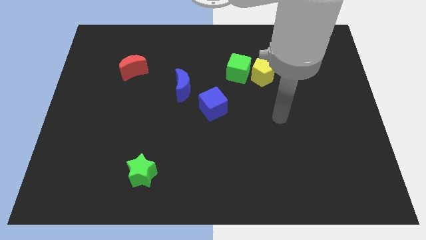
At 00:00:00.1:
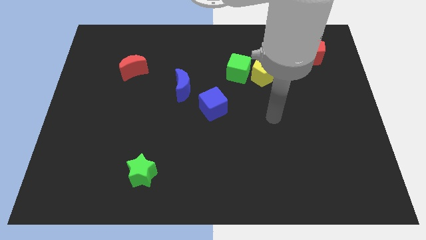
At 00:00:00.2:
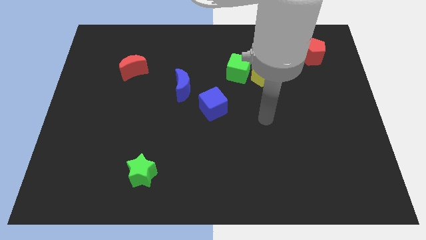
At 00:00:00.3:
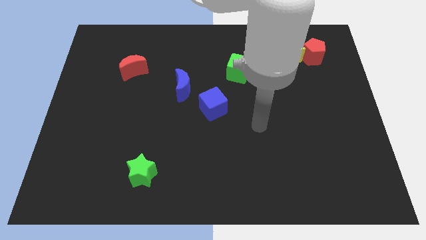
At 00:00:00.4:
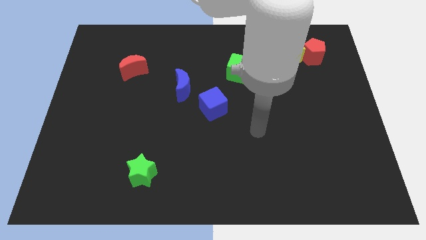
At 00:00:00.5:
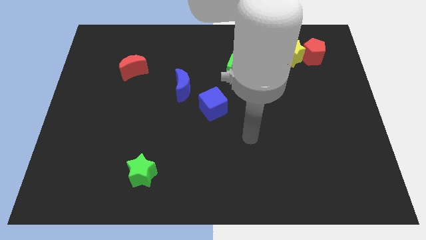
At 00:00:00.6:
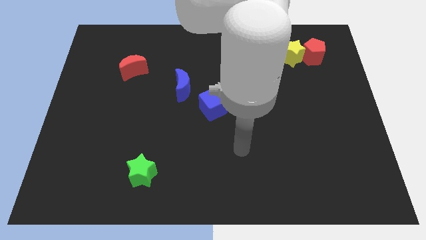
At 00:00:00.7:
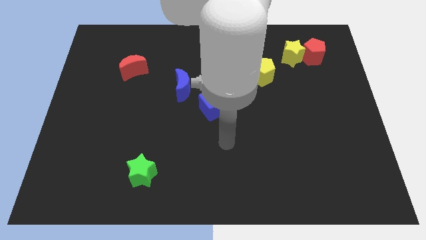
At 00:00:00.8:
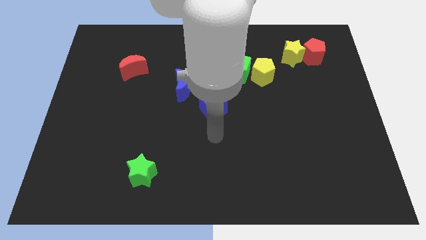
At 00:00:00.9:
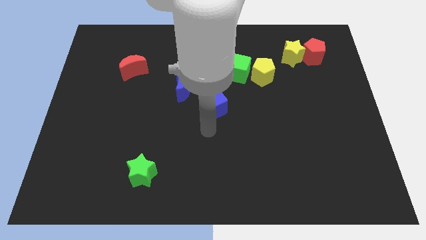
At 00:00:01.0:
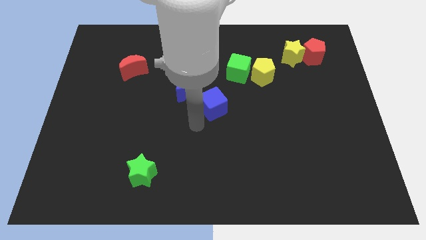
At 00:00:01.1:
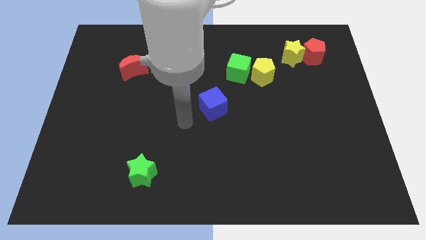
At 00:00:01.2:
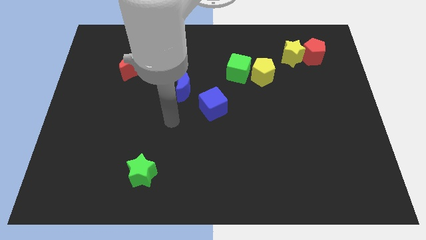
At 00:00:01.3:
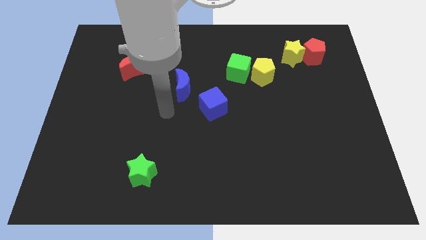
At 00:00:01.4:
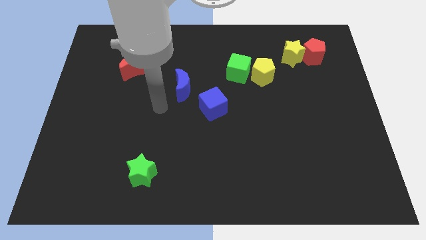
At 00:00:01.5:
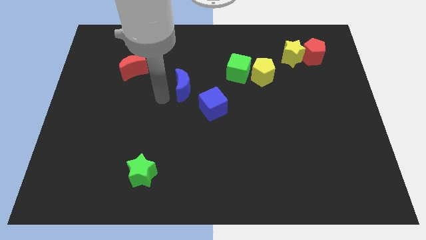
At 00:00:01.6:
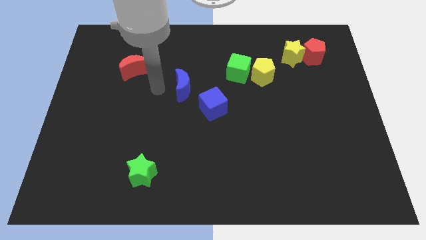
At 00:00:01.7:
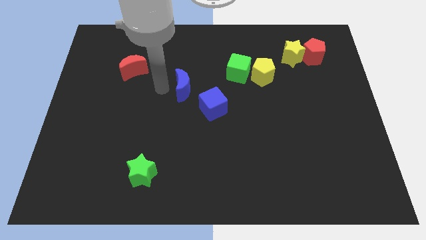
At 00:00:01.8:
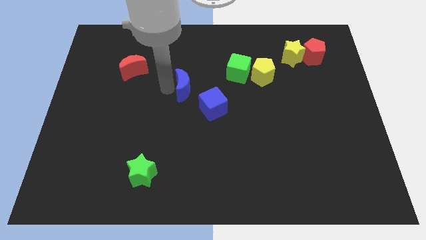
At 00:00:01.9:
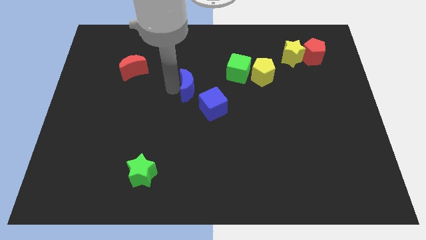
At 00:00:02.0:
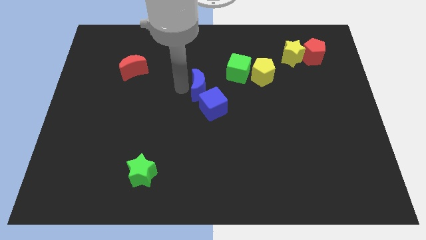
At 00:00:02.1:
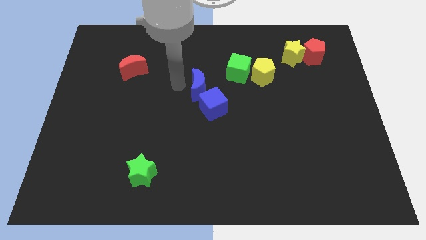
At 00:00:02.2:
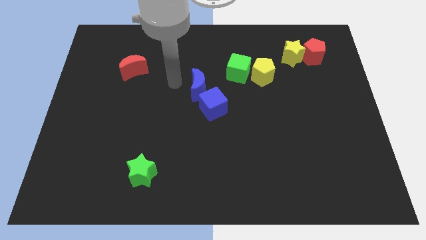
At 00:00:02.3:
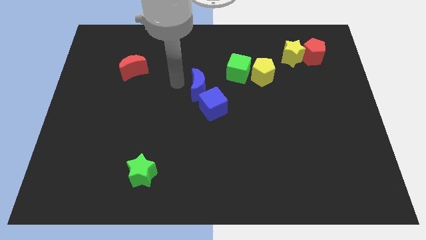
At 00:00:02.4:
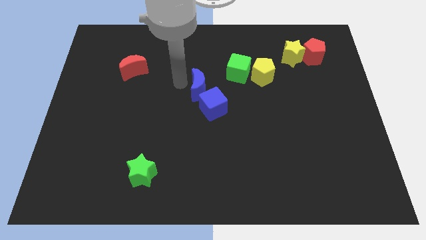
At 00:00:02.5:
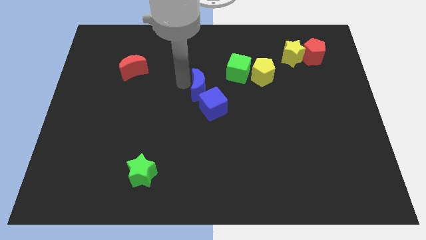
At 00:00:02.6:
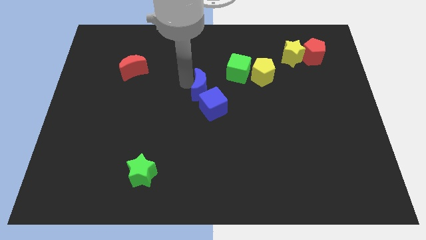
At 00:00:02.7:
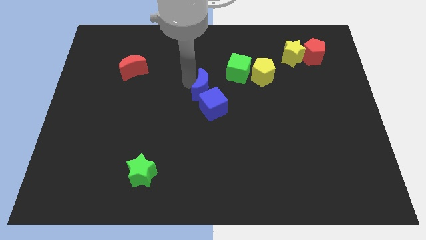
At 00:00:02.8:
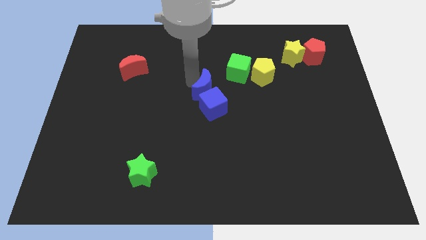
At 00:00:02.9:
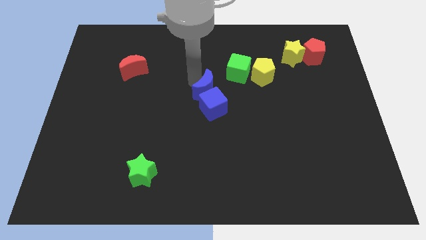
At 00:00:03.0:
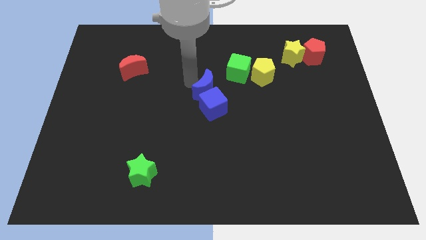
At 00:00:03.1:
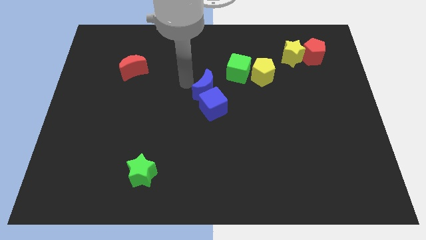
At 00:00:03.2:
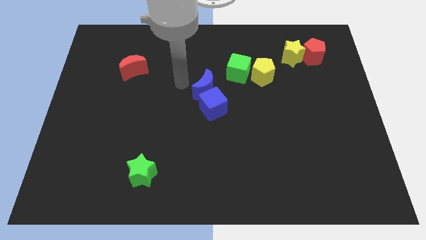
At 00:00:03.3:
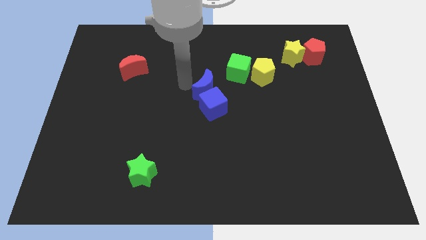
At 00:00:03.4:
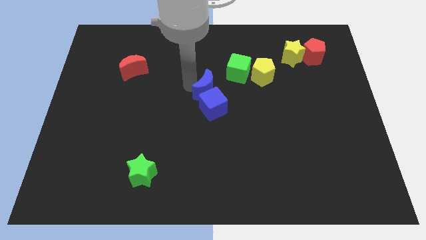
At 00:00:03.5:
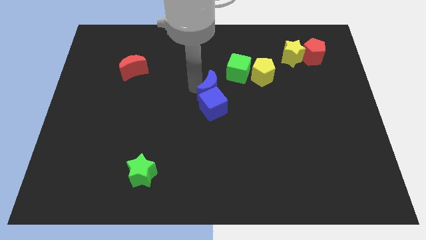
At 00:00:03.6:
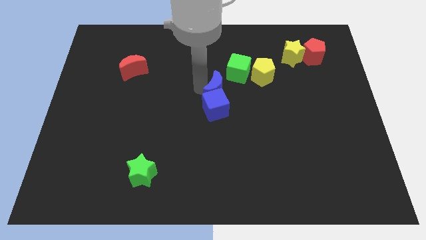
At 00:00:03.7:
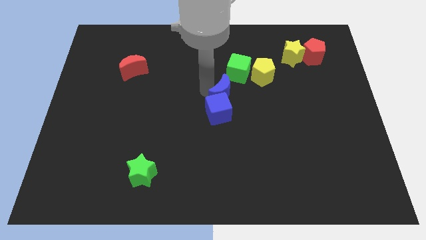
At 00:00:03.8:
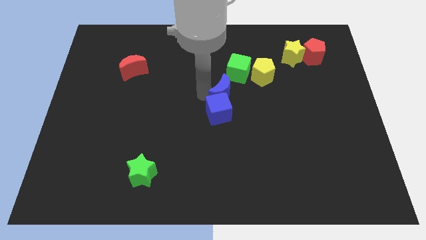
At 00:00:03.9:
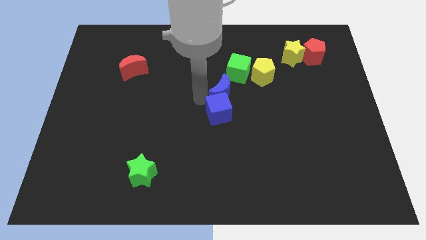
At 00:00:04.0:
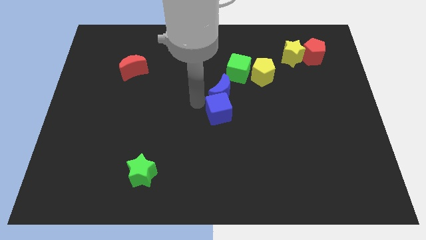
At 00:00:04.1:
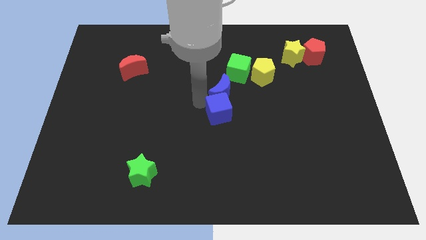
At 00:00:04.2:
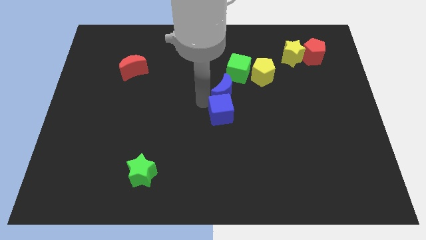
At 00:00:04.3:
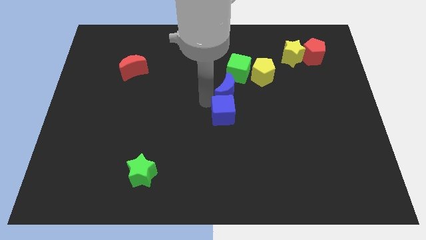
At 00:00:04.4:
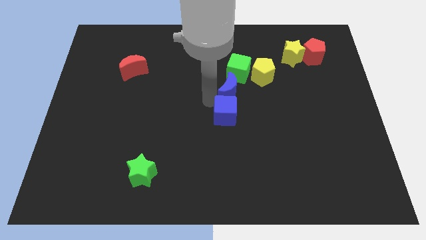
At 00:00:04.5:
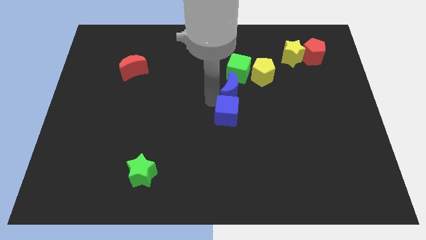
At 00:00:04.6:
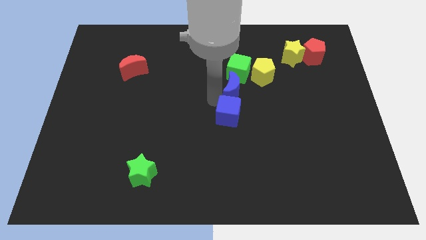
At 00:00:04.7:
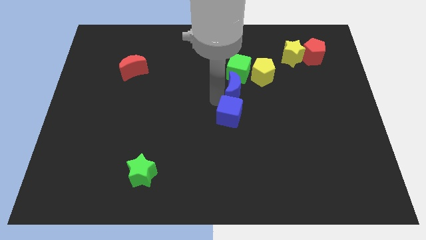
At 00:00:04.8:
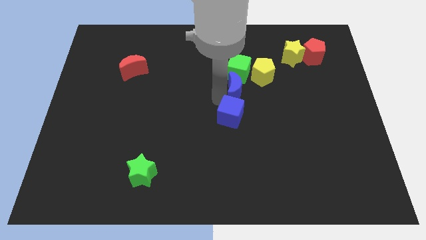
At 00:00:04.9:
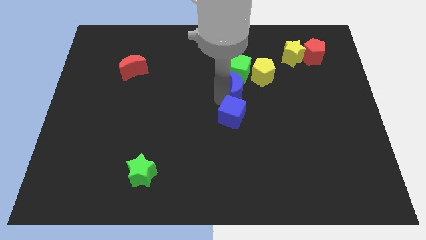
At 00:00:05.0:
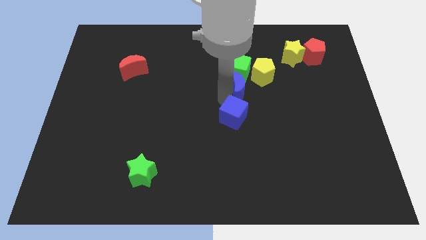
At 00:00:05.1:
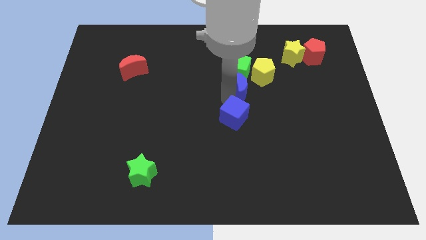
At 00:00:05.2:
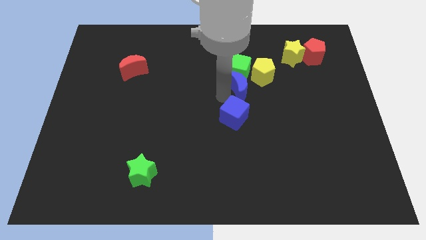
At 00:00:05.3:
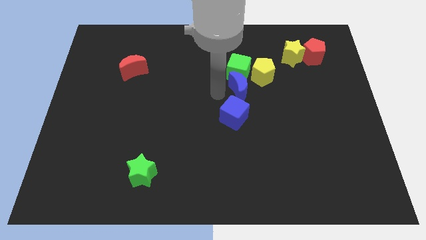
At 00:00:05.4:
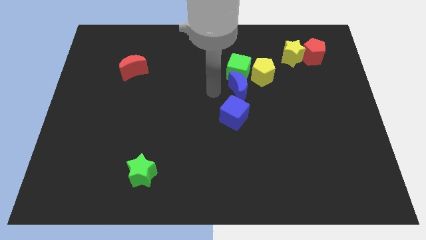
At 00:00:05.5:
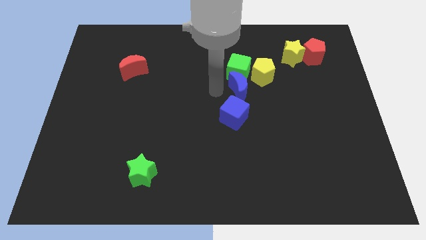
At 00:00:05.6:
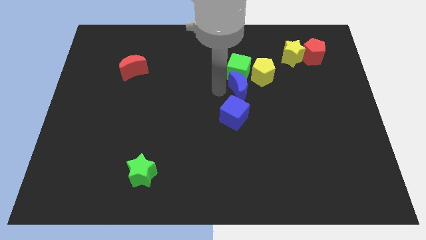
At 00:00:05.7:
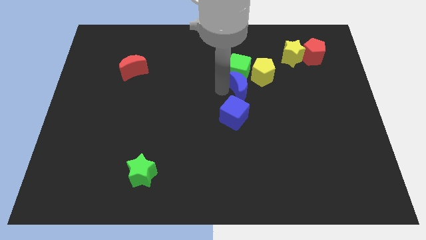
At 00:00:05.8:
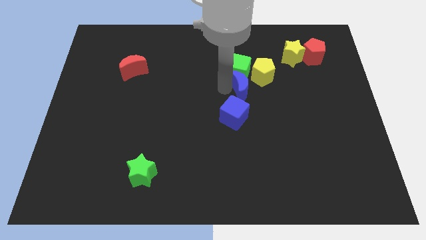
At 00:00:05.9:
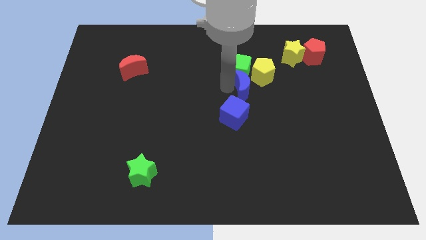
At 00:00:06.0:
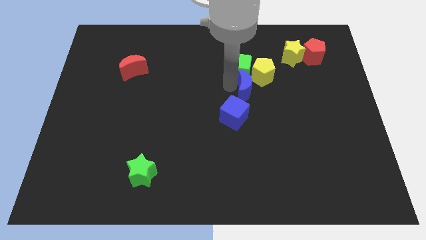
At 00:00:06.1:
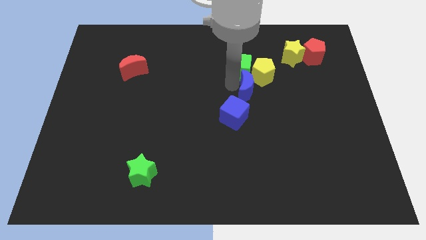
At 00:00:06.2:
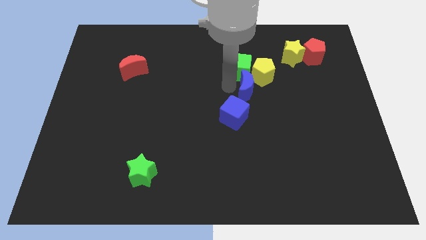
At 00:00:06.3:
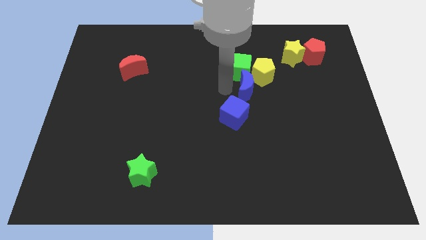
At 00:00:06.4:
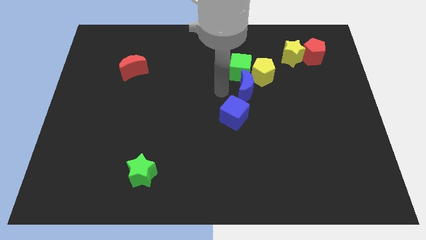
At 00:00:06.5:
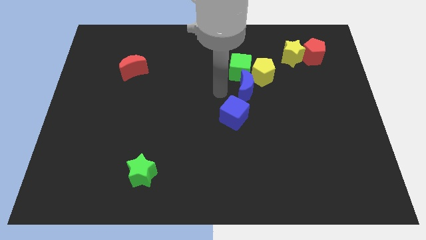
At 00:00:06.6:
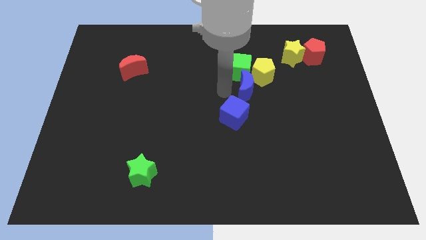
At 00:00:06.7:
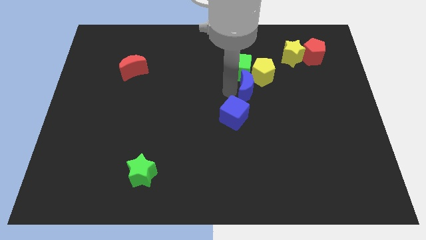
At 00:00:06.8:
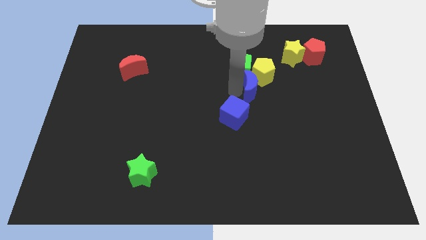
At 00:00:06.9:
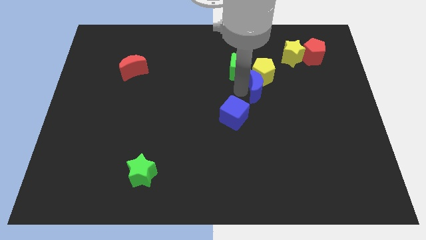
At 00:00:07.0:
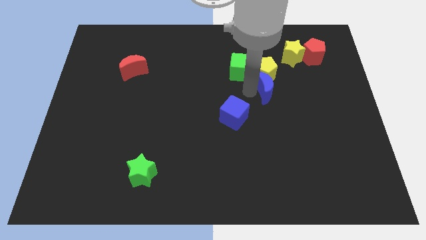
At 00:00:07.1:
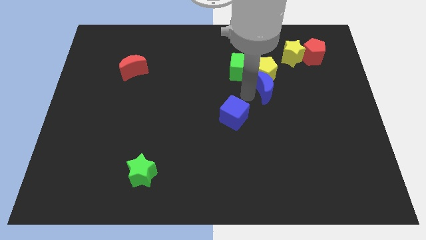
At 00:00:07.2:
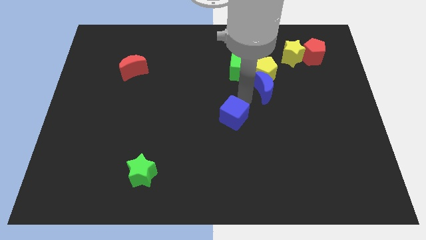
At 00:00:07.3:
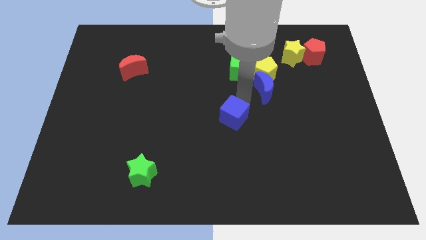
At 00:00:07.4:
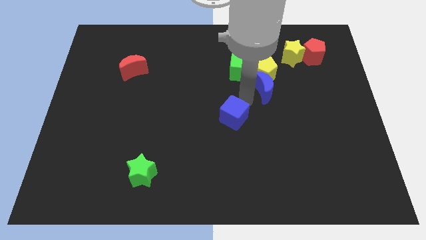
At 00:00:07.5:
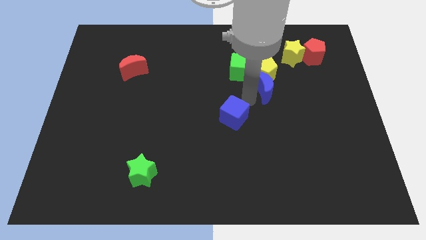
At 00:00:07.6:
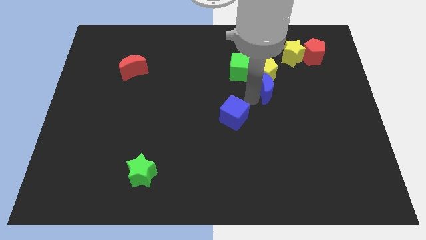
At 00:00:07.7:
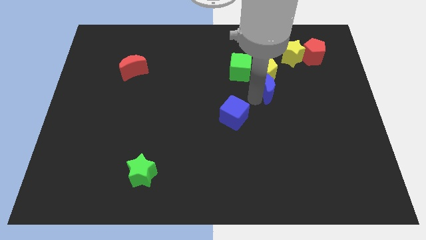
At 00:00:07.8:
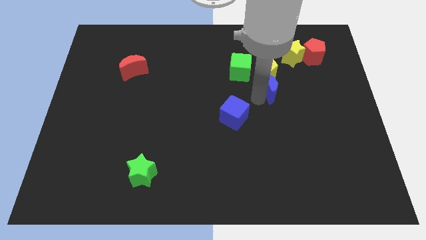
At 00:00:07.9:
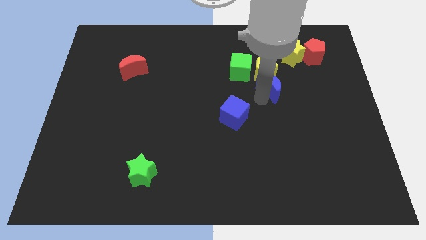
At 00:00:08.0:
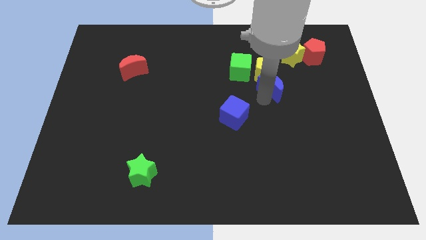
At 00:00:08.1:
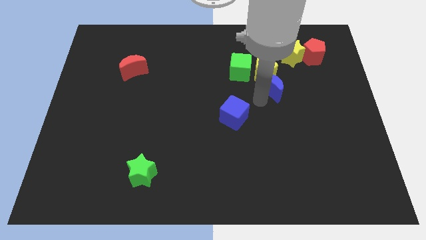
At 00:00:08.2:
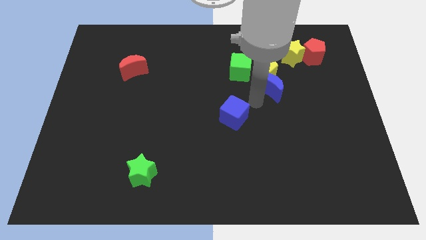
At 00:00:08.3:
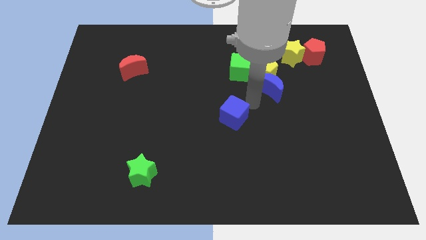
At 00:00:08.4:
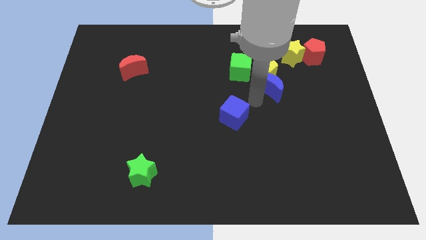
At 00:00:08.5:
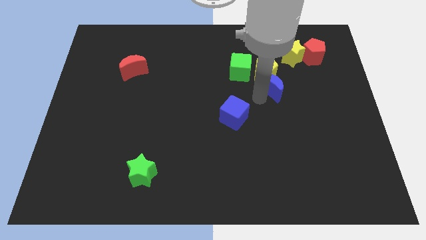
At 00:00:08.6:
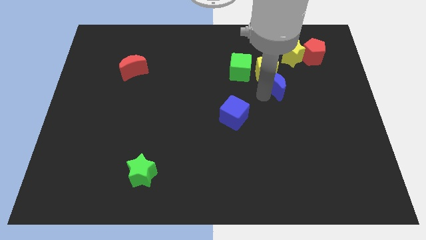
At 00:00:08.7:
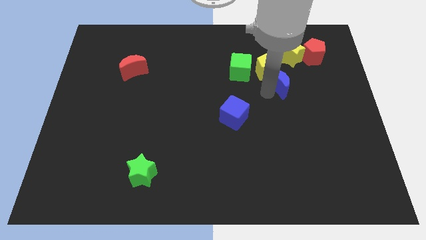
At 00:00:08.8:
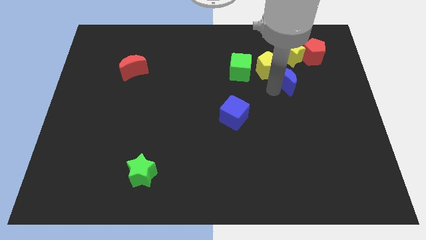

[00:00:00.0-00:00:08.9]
push the blue moon diagonally down and to the left of the red pentagon
